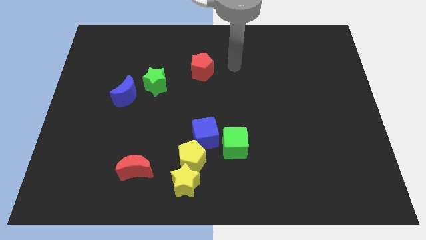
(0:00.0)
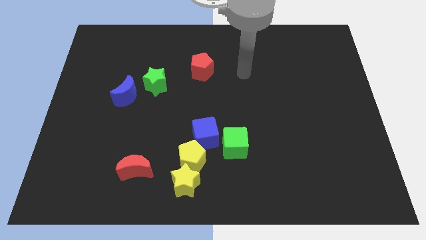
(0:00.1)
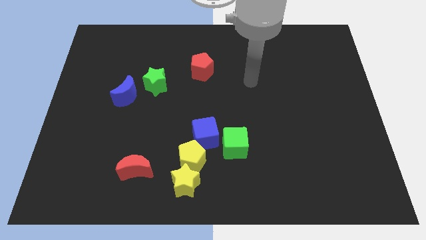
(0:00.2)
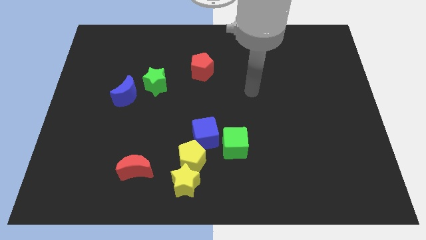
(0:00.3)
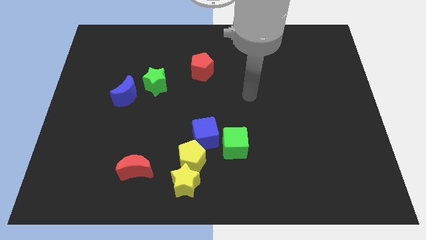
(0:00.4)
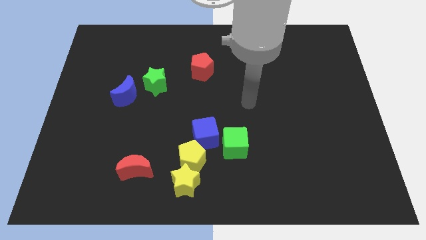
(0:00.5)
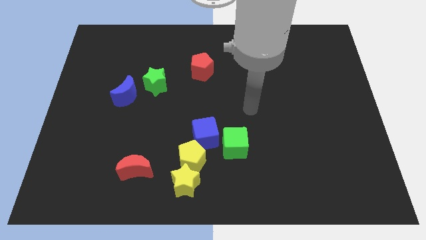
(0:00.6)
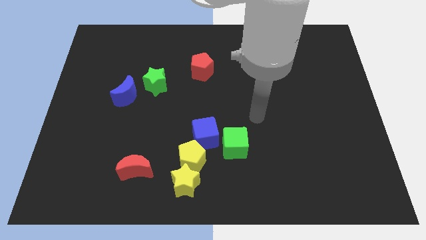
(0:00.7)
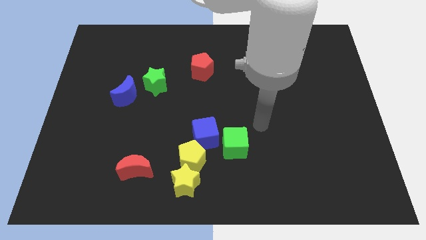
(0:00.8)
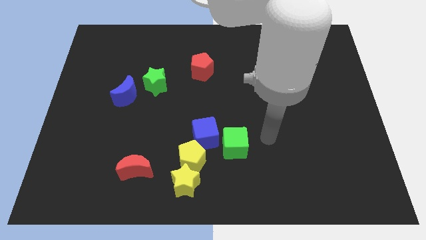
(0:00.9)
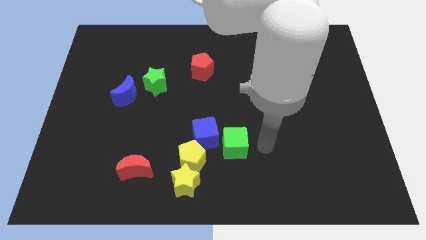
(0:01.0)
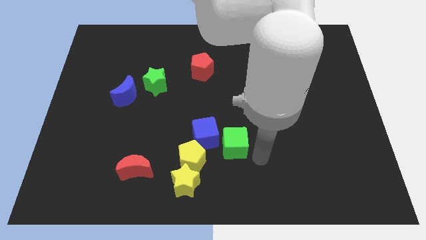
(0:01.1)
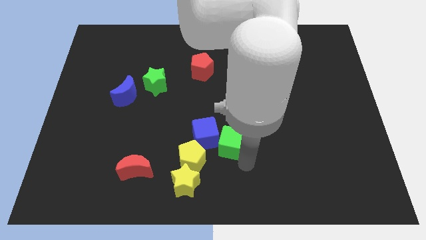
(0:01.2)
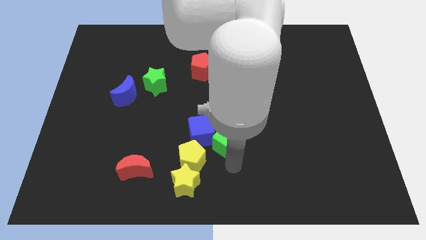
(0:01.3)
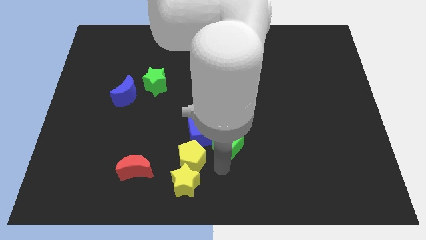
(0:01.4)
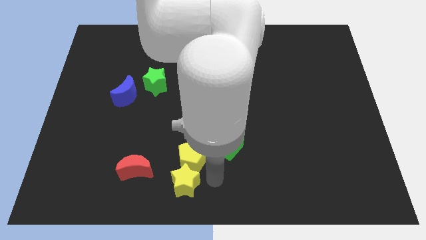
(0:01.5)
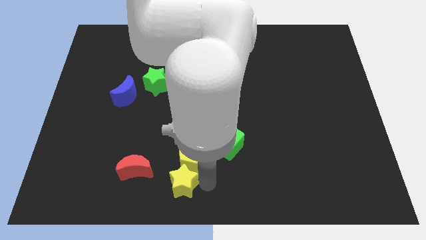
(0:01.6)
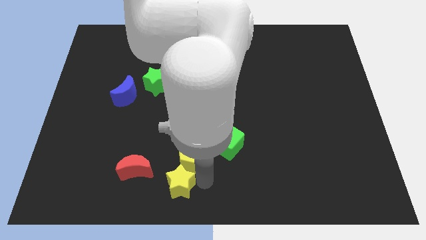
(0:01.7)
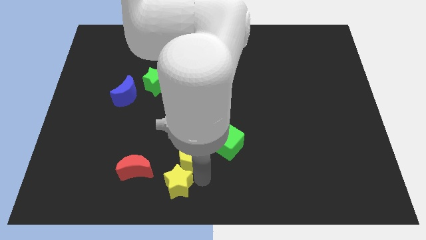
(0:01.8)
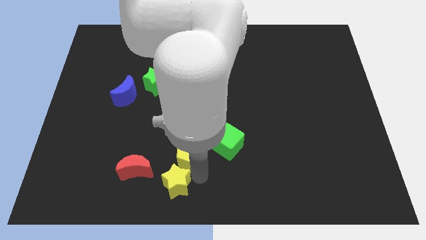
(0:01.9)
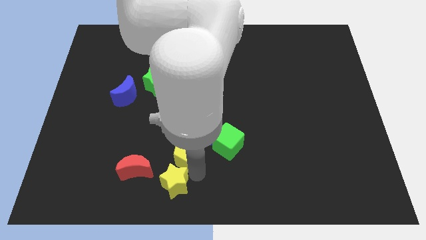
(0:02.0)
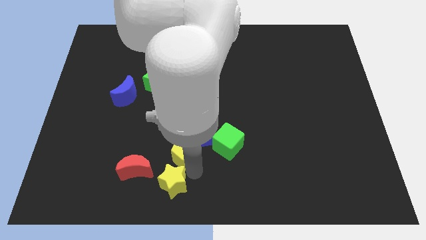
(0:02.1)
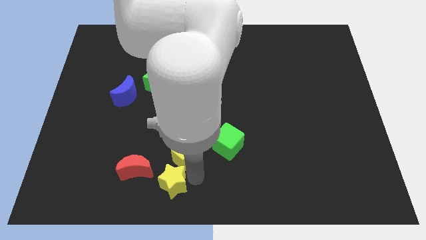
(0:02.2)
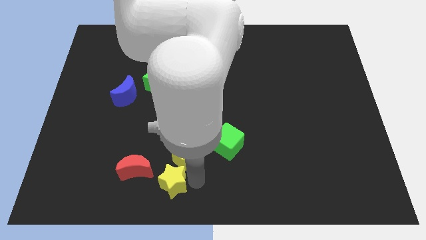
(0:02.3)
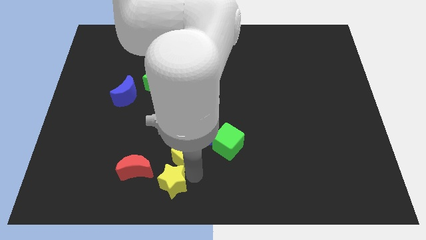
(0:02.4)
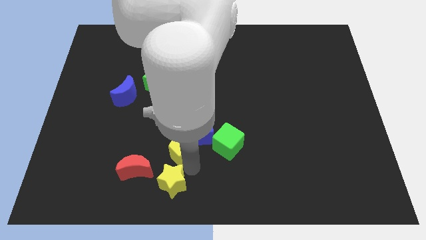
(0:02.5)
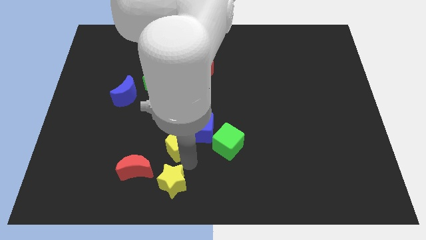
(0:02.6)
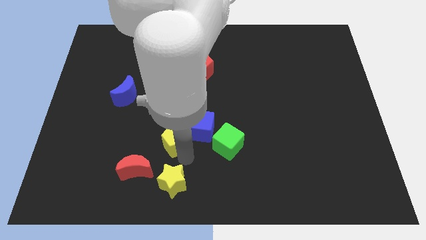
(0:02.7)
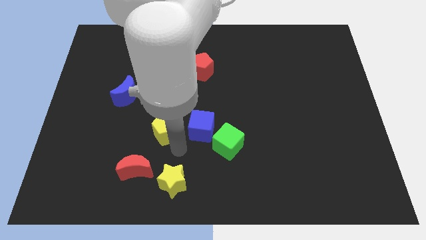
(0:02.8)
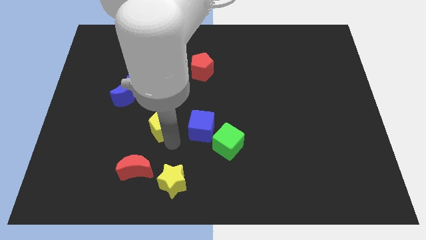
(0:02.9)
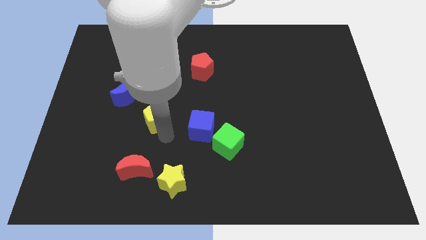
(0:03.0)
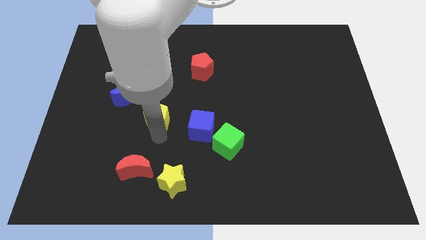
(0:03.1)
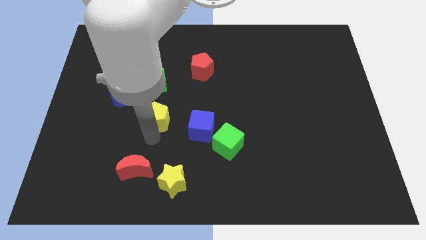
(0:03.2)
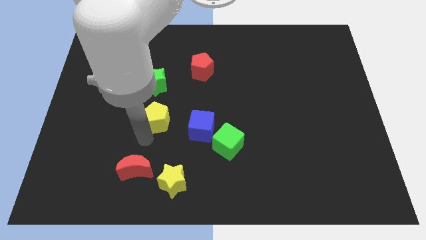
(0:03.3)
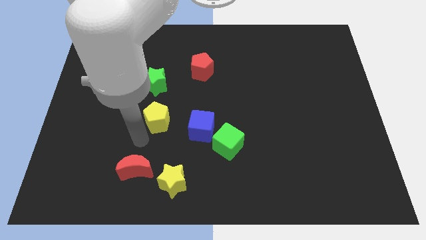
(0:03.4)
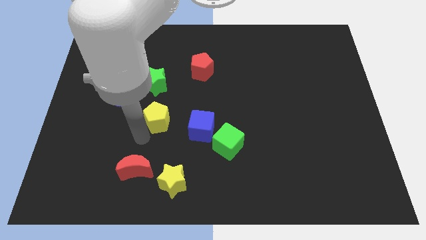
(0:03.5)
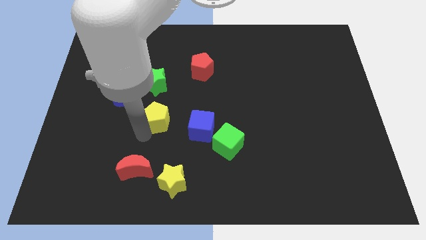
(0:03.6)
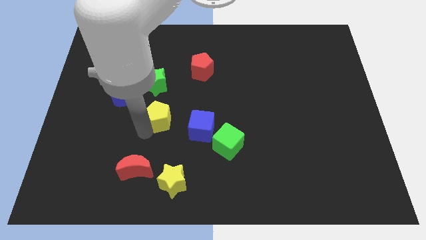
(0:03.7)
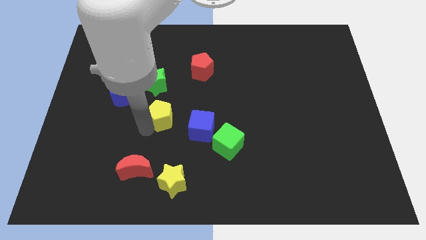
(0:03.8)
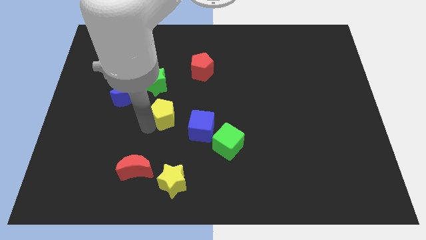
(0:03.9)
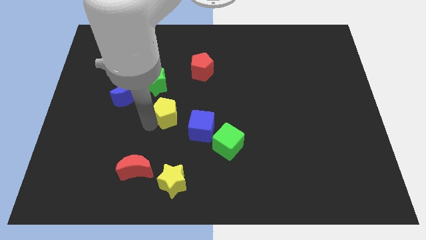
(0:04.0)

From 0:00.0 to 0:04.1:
slide the yellow pentagon diagonally down and to the right of the green star

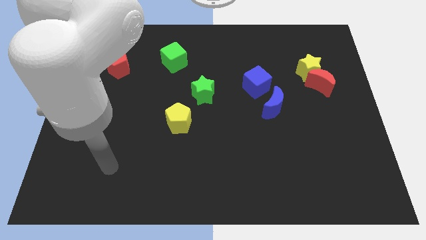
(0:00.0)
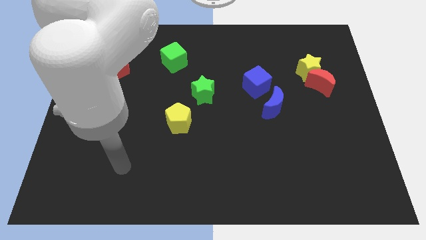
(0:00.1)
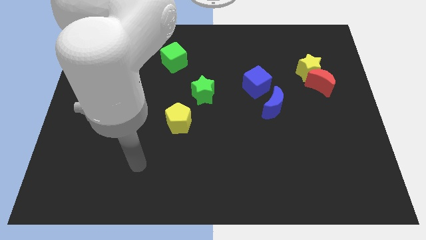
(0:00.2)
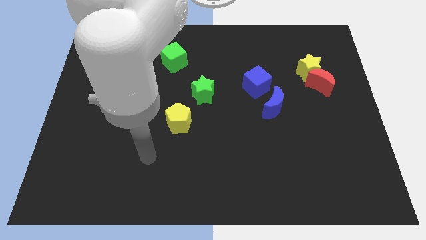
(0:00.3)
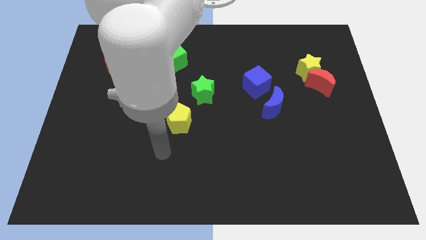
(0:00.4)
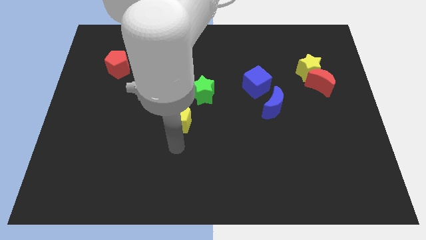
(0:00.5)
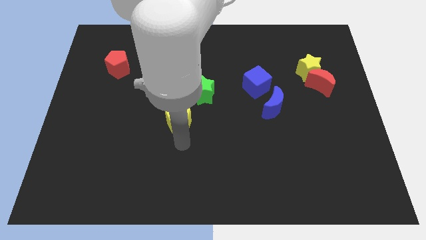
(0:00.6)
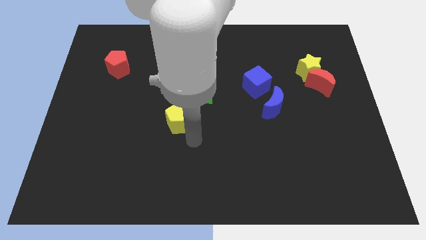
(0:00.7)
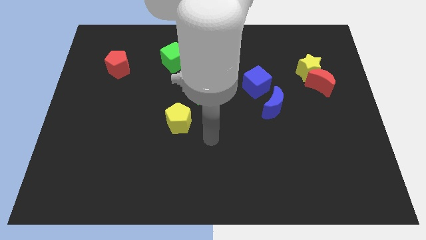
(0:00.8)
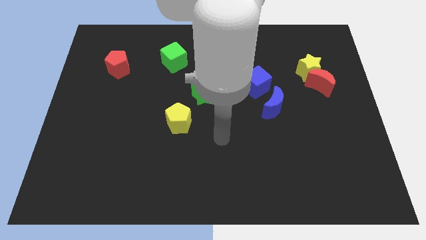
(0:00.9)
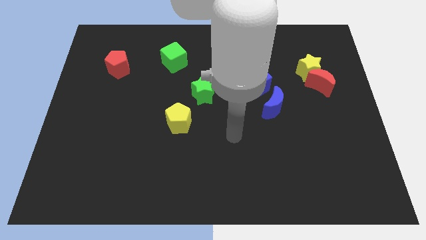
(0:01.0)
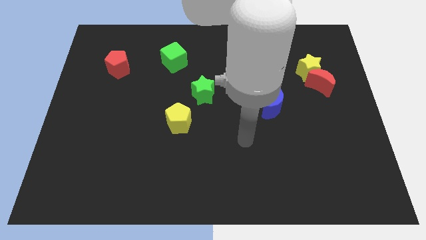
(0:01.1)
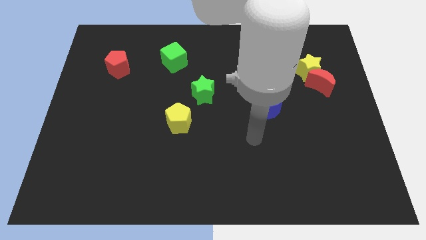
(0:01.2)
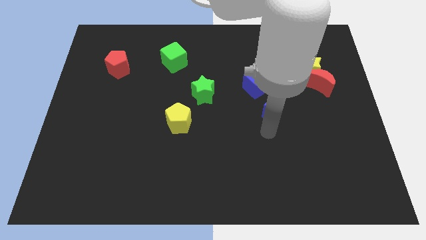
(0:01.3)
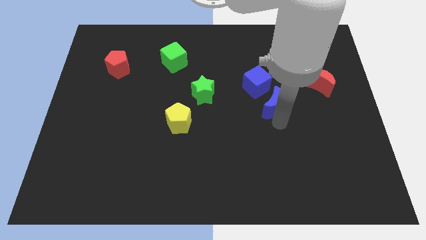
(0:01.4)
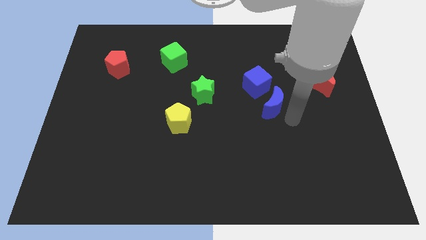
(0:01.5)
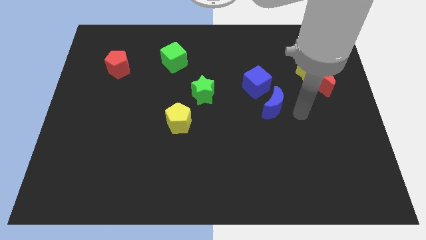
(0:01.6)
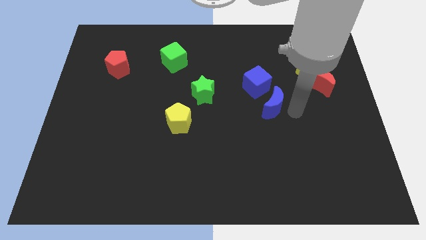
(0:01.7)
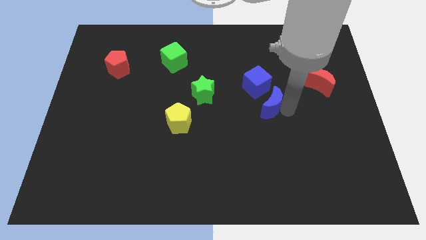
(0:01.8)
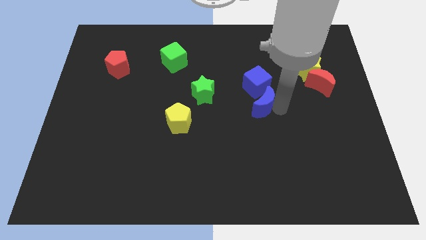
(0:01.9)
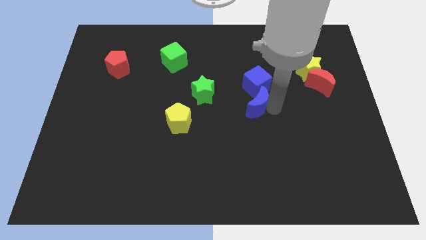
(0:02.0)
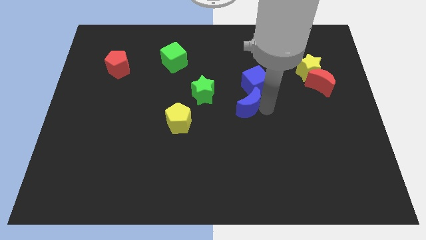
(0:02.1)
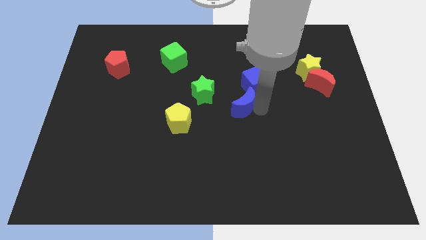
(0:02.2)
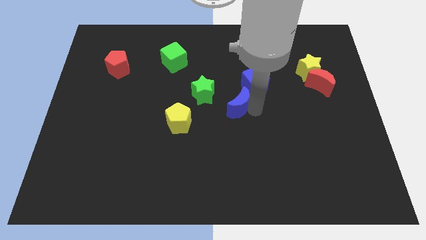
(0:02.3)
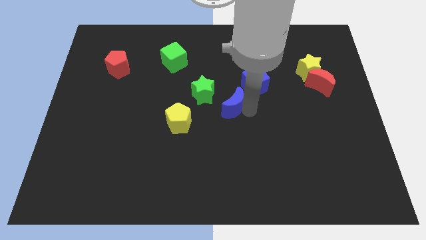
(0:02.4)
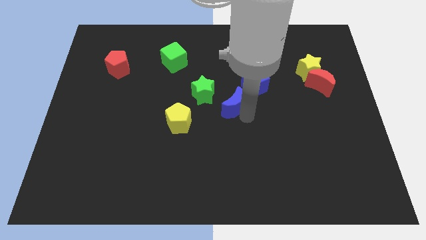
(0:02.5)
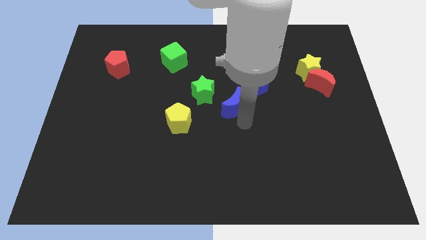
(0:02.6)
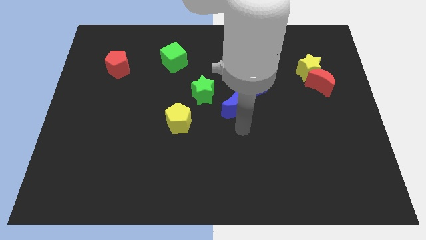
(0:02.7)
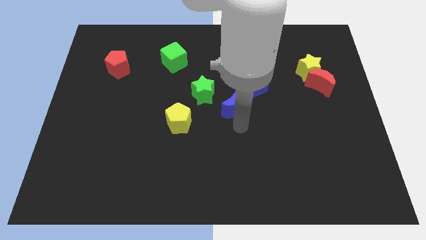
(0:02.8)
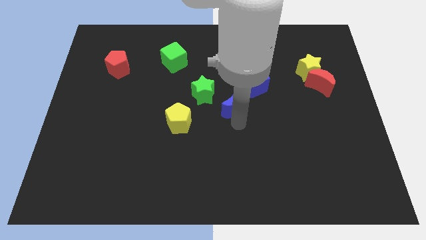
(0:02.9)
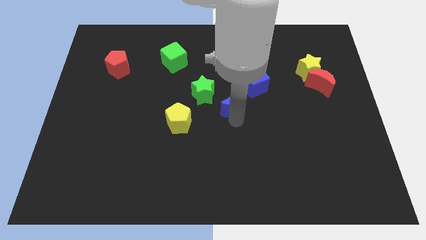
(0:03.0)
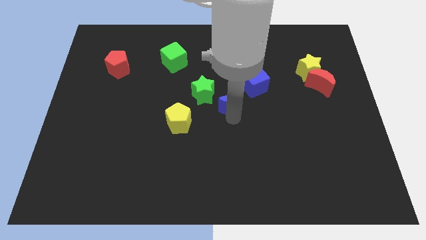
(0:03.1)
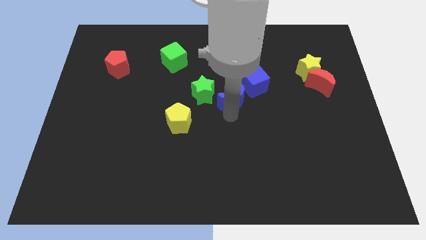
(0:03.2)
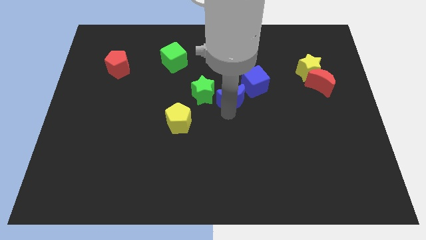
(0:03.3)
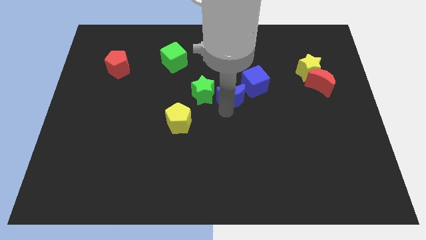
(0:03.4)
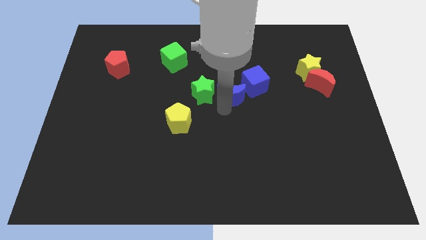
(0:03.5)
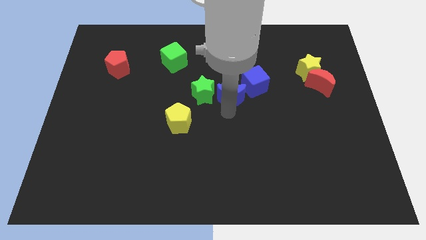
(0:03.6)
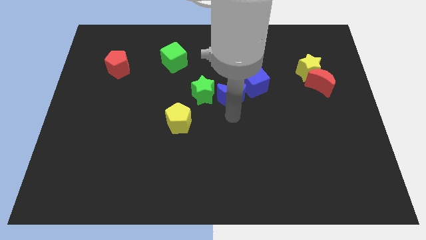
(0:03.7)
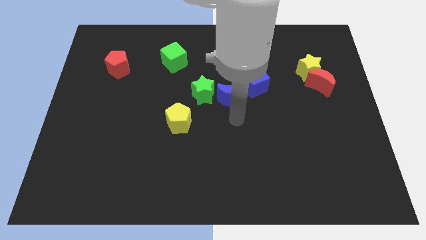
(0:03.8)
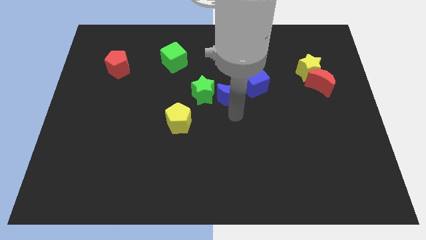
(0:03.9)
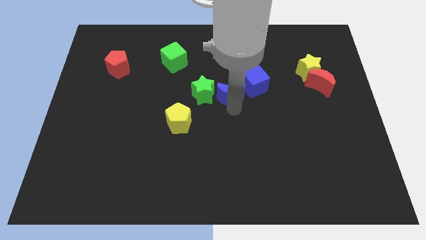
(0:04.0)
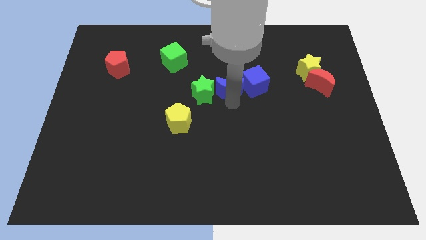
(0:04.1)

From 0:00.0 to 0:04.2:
put the blue moon to the top right of the green star
